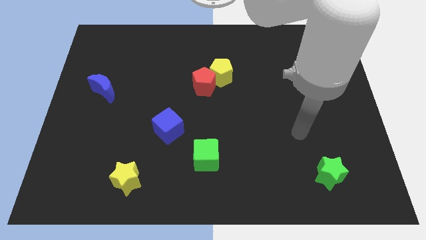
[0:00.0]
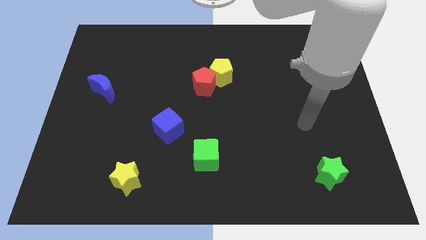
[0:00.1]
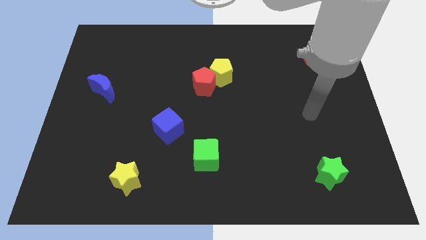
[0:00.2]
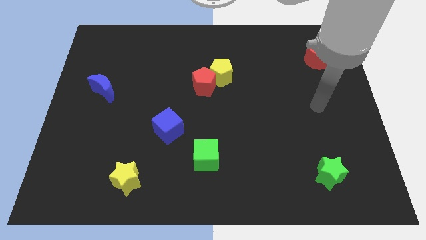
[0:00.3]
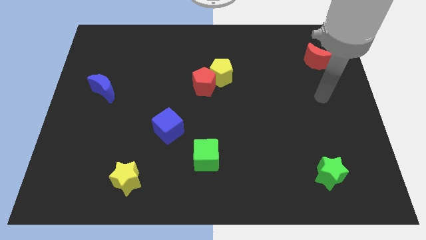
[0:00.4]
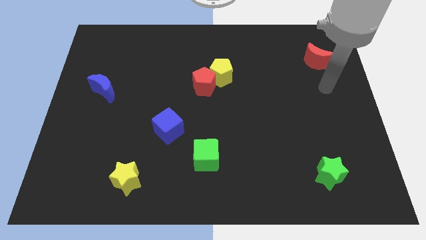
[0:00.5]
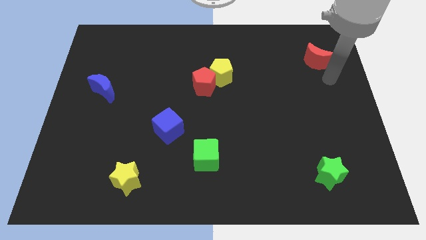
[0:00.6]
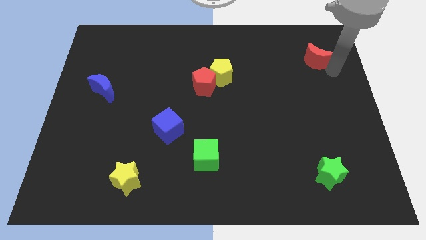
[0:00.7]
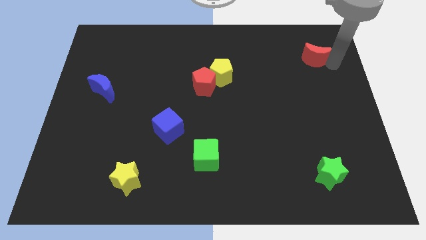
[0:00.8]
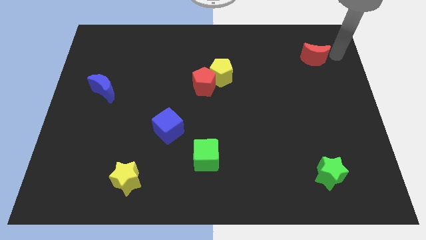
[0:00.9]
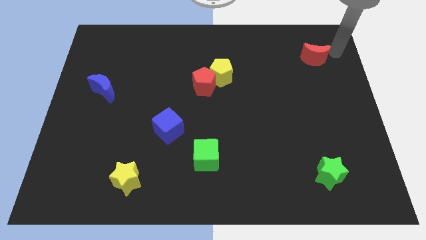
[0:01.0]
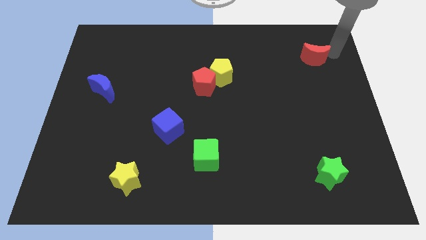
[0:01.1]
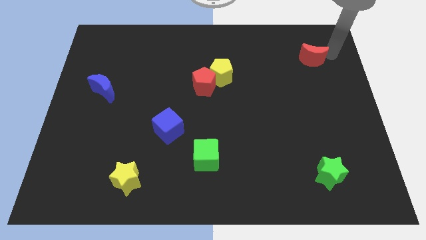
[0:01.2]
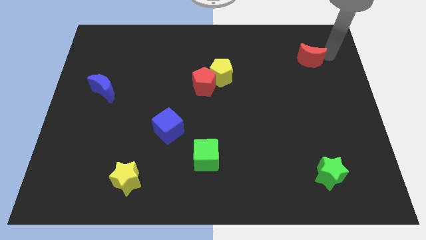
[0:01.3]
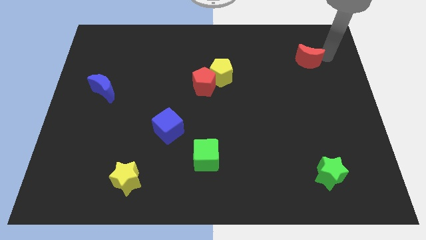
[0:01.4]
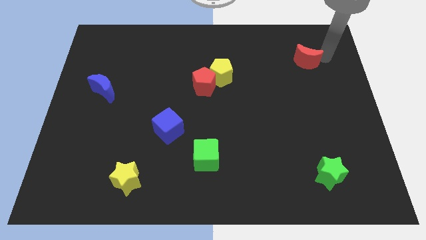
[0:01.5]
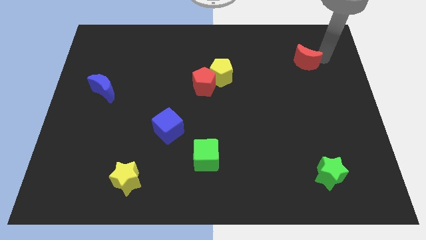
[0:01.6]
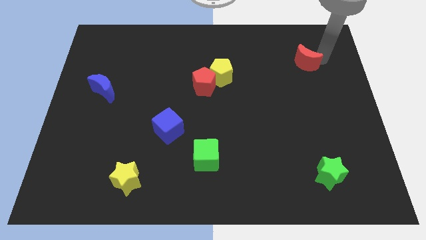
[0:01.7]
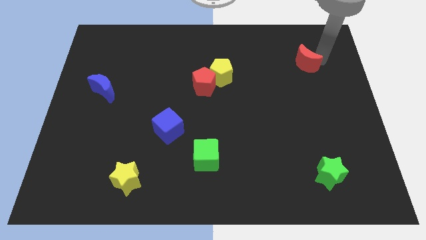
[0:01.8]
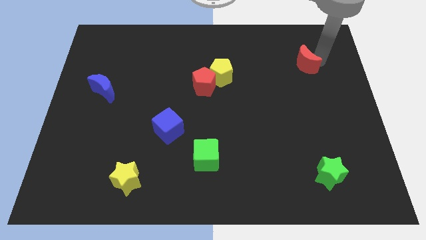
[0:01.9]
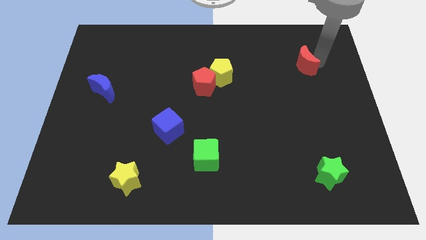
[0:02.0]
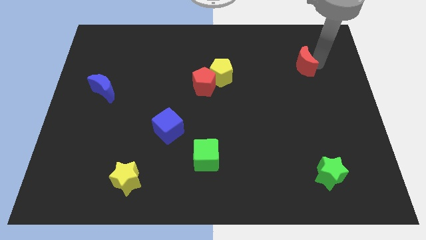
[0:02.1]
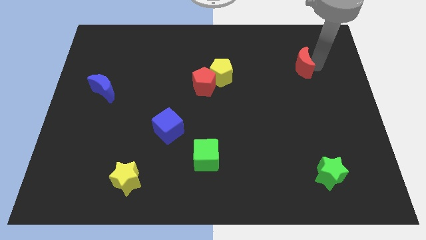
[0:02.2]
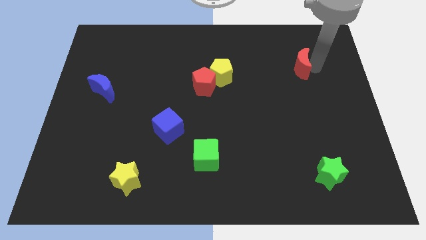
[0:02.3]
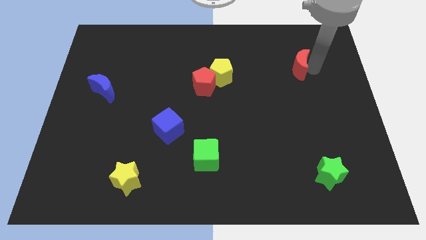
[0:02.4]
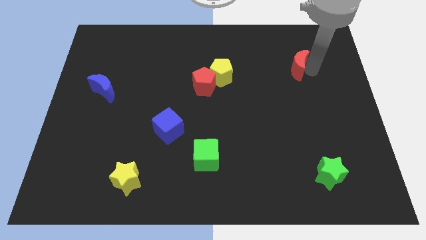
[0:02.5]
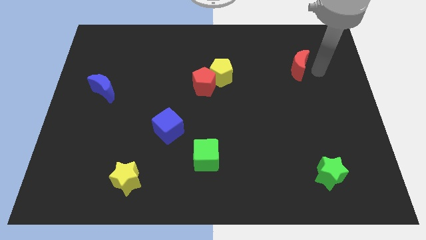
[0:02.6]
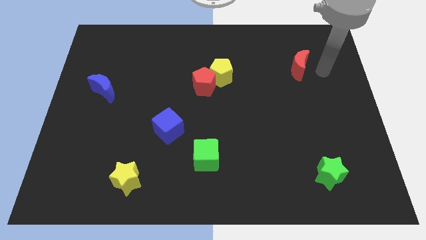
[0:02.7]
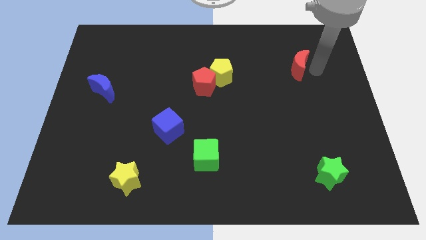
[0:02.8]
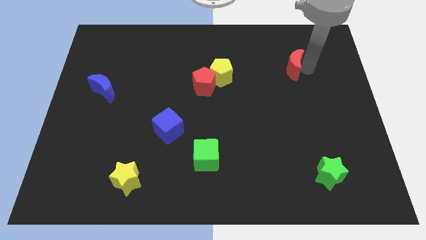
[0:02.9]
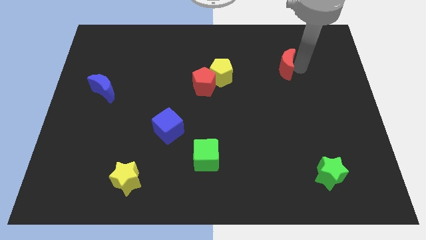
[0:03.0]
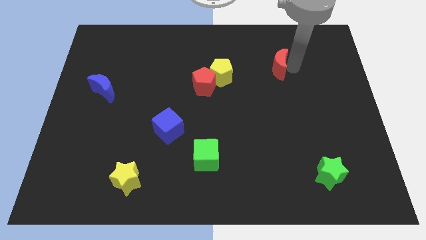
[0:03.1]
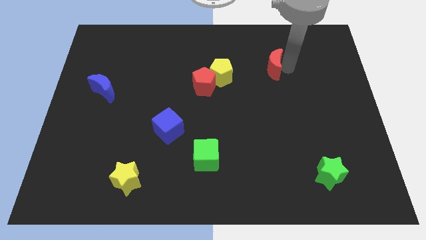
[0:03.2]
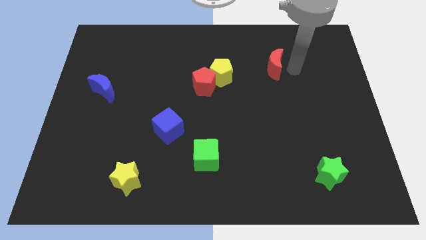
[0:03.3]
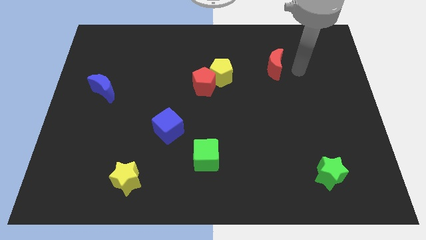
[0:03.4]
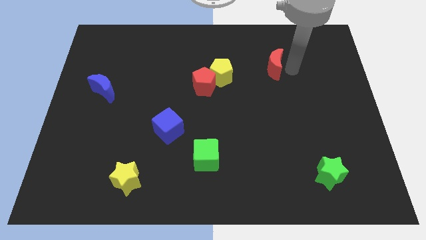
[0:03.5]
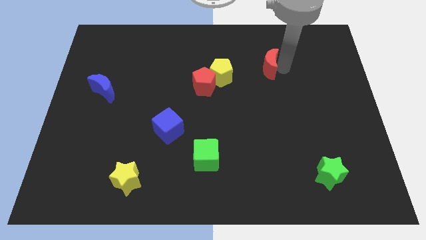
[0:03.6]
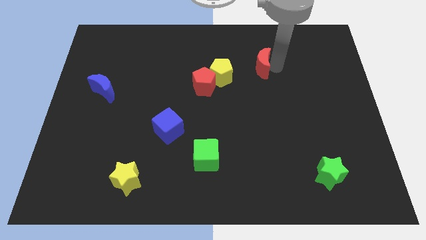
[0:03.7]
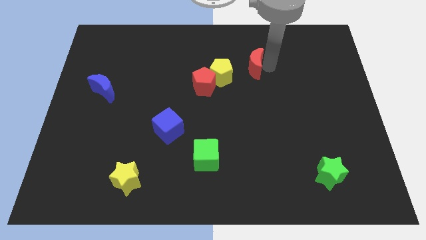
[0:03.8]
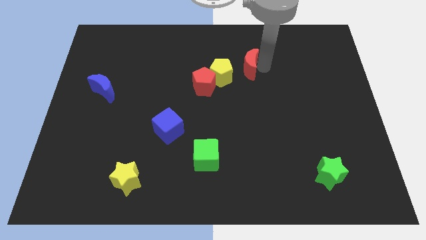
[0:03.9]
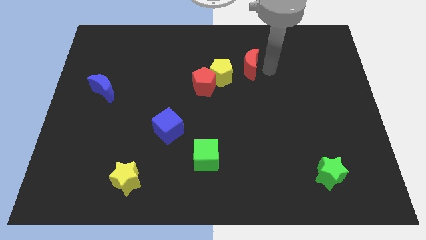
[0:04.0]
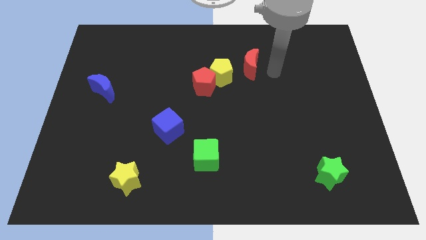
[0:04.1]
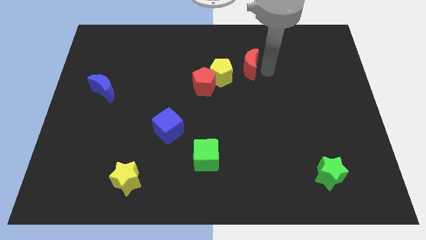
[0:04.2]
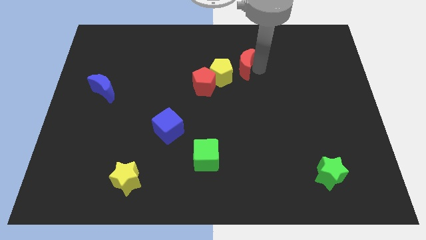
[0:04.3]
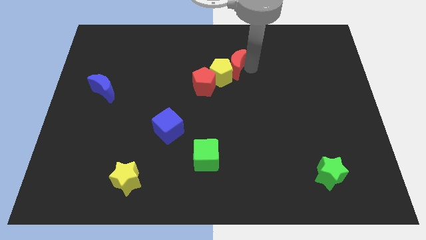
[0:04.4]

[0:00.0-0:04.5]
slide the red moon left

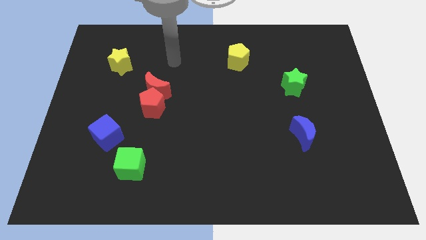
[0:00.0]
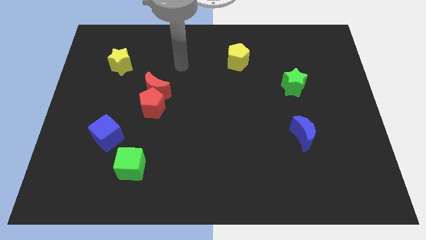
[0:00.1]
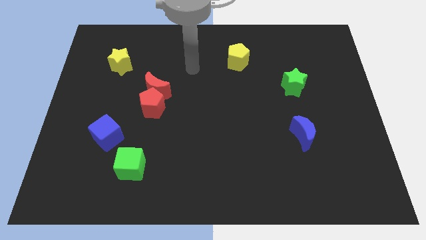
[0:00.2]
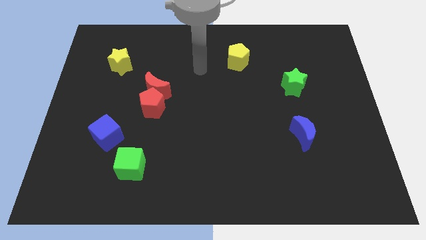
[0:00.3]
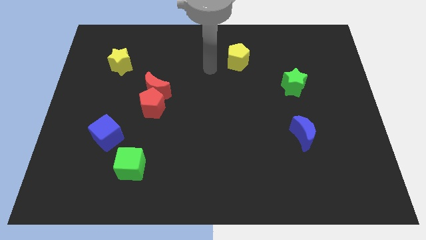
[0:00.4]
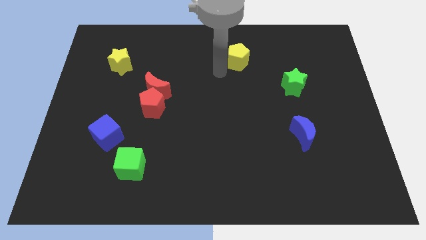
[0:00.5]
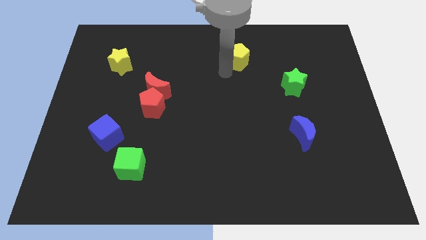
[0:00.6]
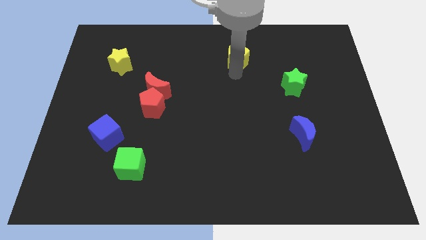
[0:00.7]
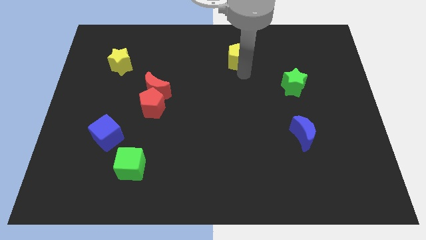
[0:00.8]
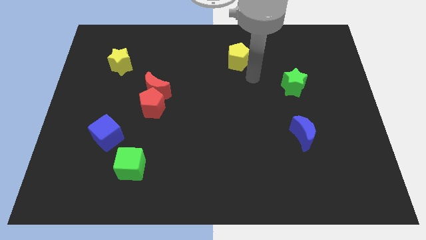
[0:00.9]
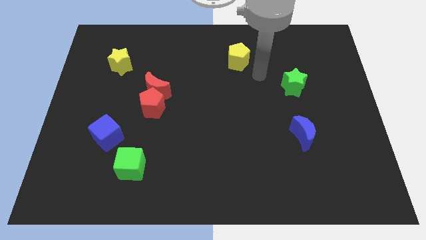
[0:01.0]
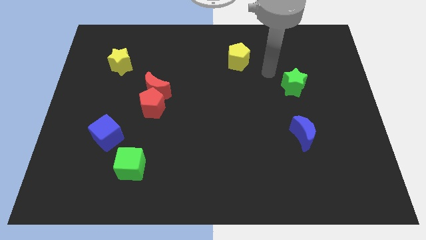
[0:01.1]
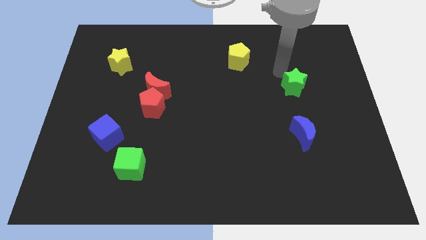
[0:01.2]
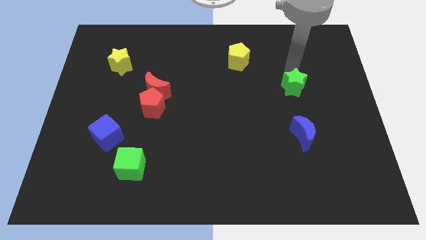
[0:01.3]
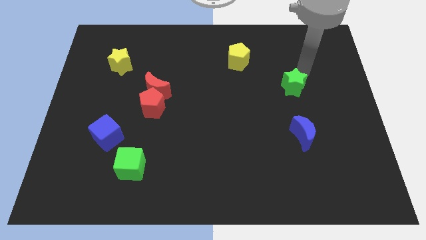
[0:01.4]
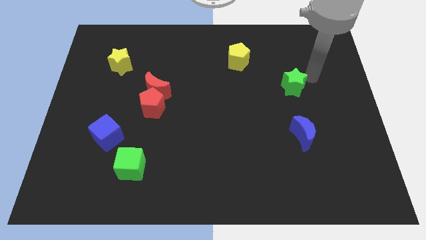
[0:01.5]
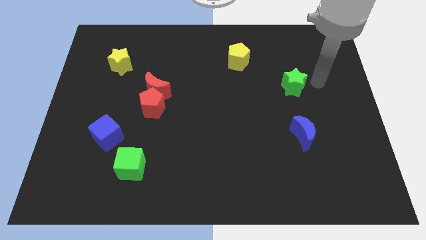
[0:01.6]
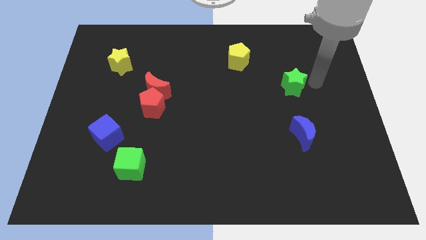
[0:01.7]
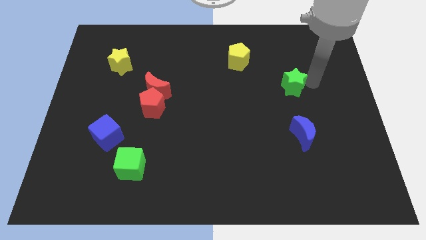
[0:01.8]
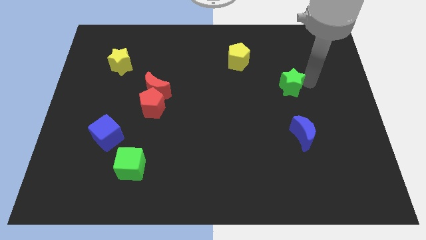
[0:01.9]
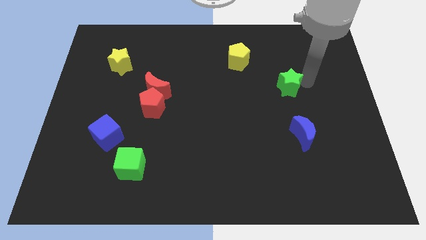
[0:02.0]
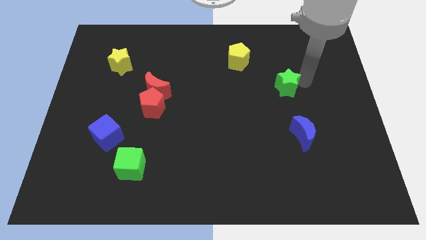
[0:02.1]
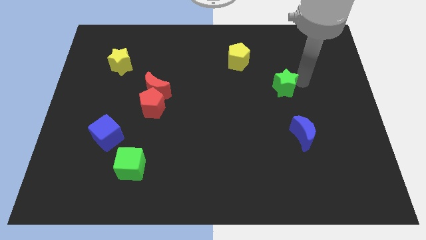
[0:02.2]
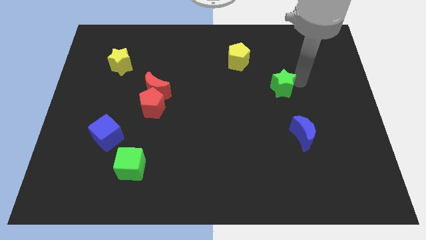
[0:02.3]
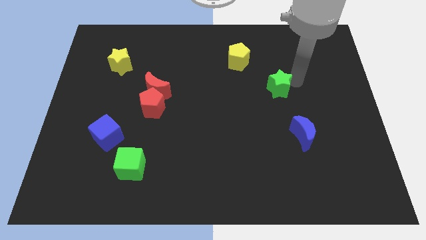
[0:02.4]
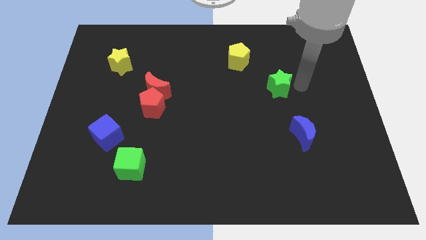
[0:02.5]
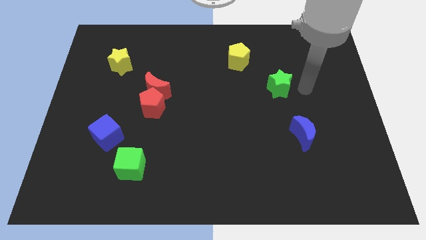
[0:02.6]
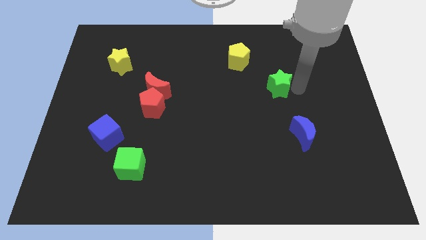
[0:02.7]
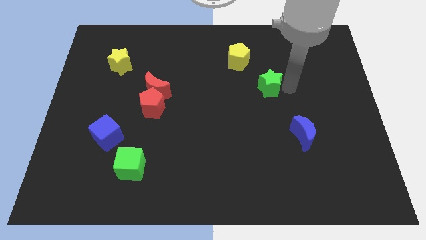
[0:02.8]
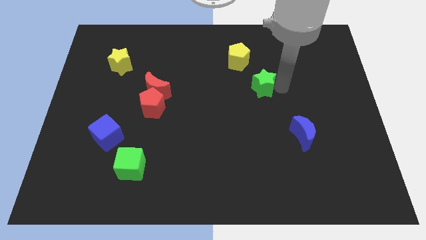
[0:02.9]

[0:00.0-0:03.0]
push the green star to the left a bit

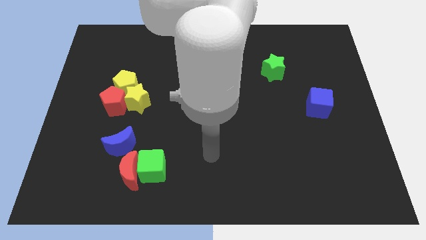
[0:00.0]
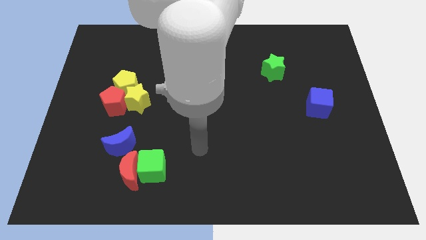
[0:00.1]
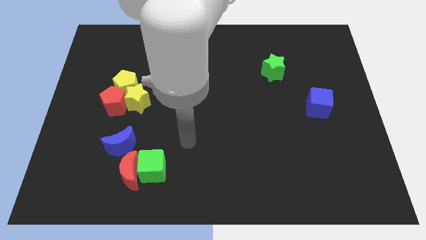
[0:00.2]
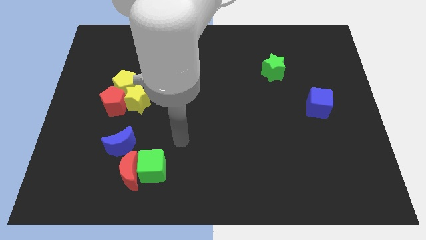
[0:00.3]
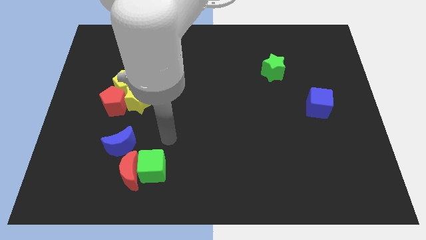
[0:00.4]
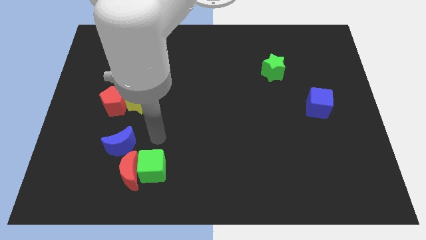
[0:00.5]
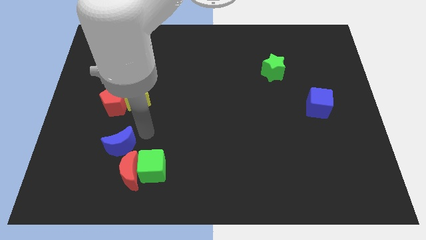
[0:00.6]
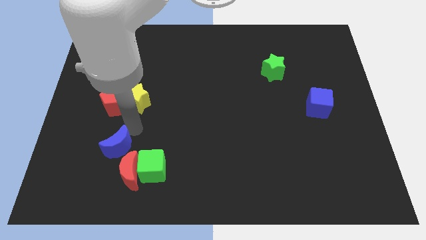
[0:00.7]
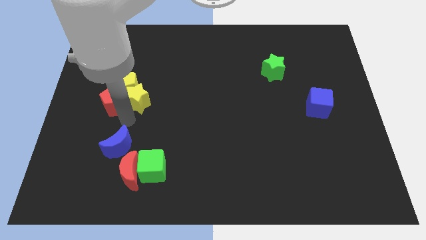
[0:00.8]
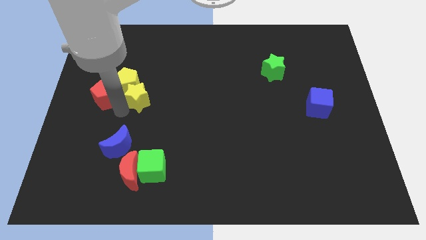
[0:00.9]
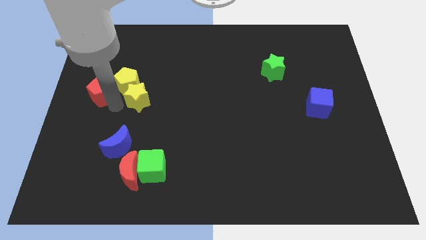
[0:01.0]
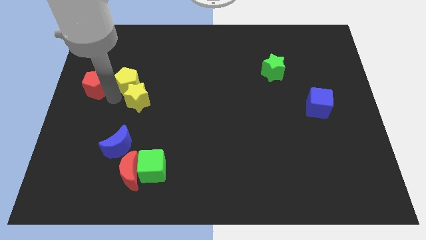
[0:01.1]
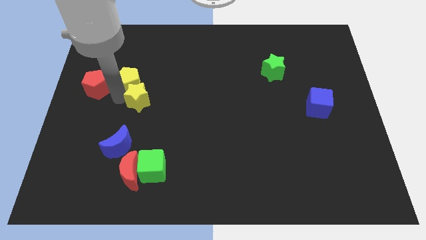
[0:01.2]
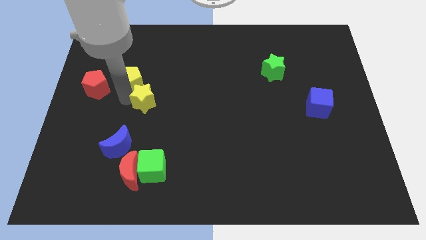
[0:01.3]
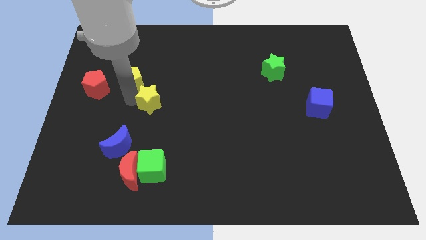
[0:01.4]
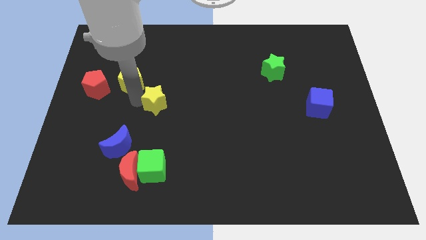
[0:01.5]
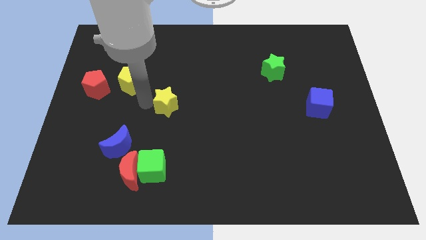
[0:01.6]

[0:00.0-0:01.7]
slightly push the yellow star to the right
